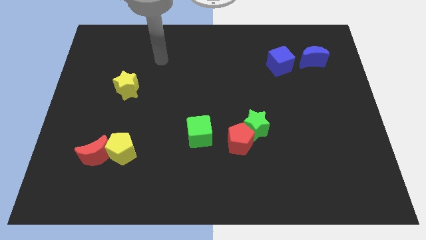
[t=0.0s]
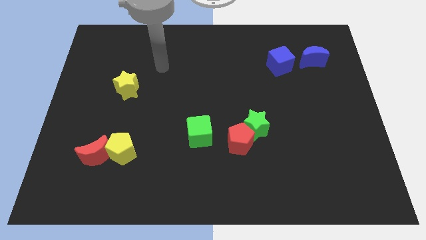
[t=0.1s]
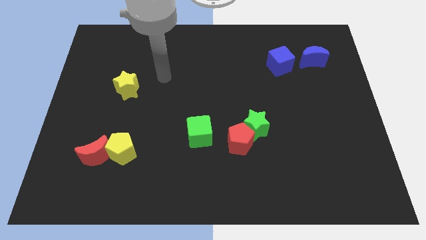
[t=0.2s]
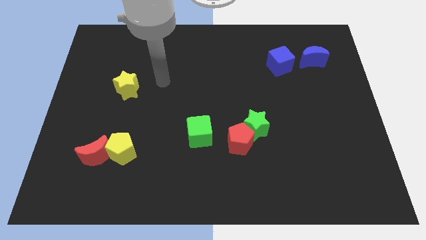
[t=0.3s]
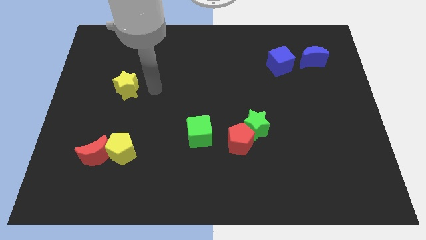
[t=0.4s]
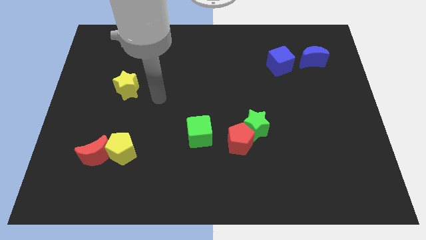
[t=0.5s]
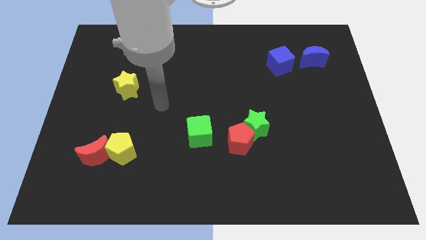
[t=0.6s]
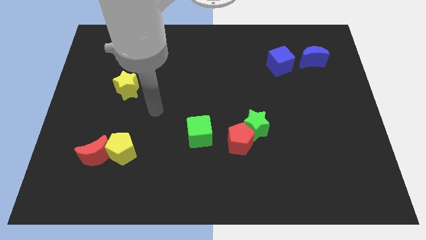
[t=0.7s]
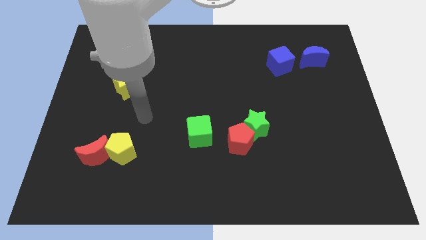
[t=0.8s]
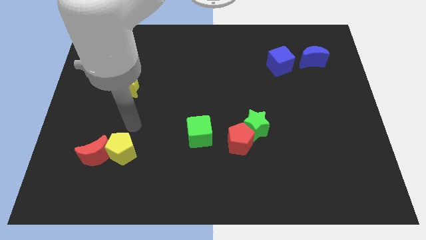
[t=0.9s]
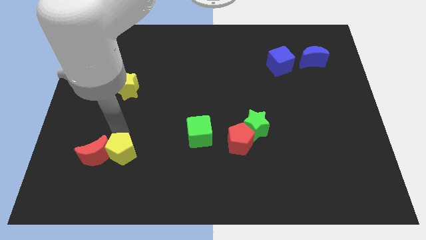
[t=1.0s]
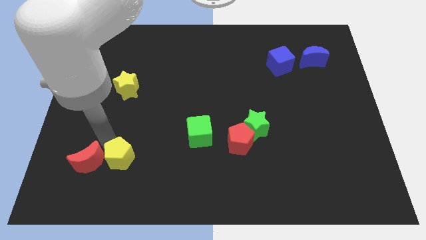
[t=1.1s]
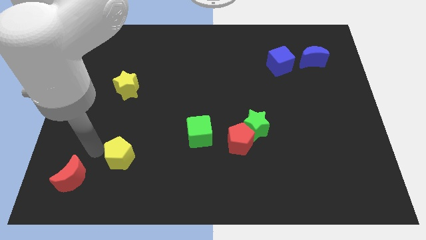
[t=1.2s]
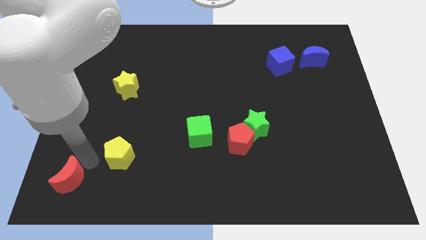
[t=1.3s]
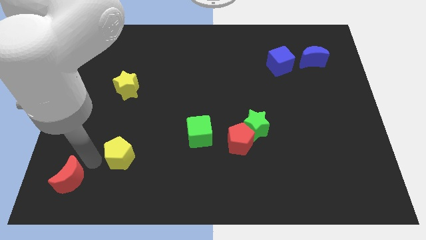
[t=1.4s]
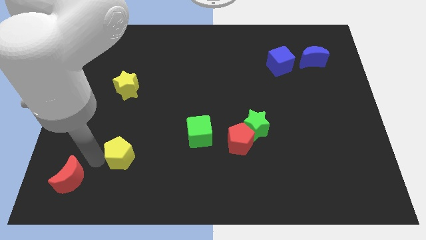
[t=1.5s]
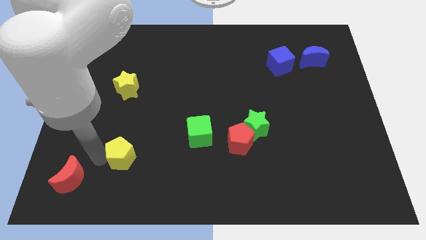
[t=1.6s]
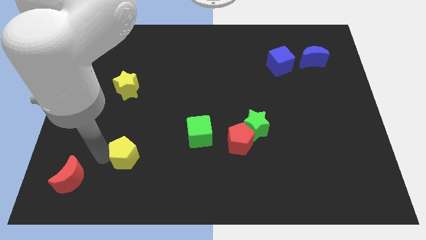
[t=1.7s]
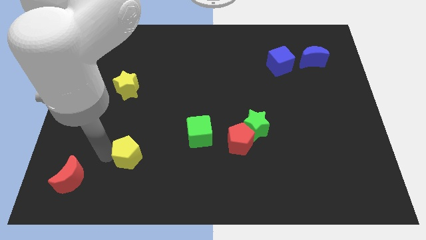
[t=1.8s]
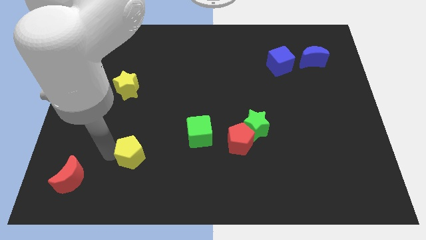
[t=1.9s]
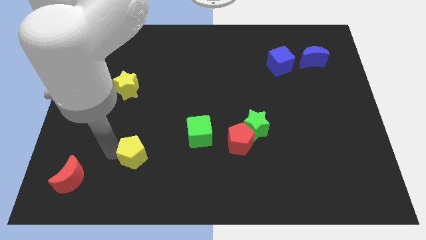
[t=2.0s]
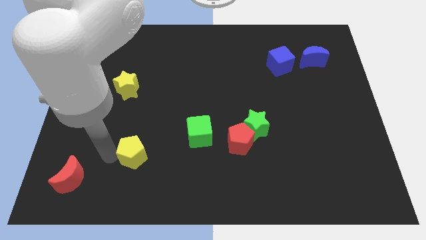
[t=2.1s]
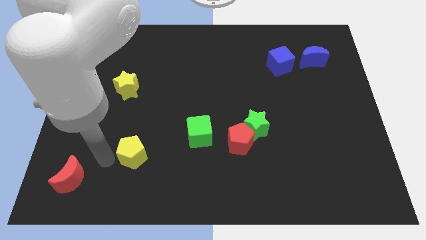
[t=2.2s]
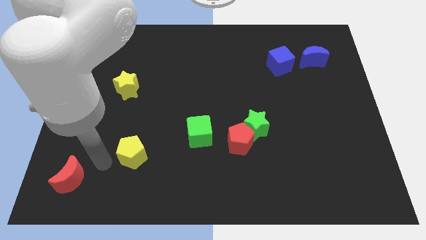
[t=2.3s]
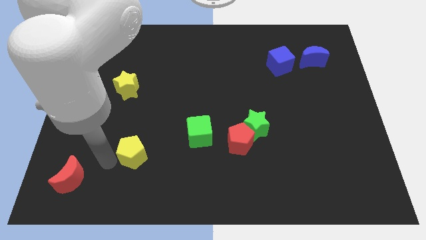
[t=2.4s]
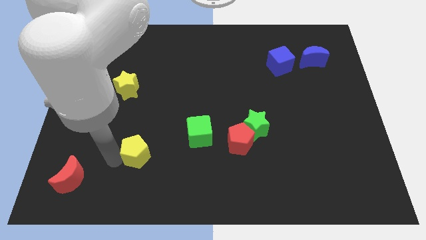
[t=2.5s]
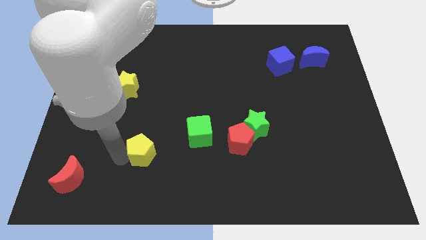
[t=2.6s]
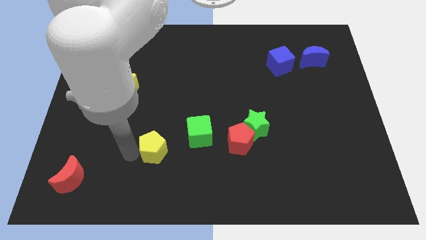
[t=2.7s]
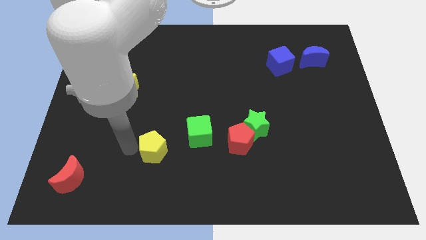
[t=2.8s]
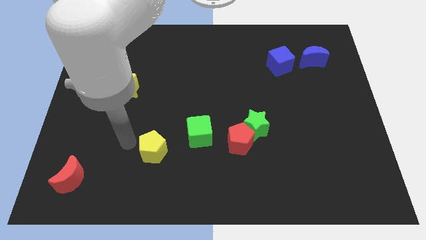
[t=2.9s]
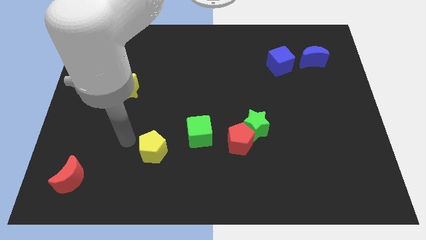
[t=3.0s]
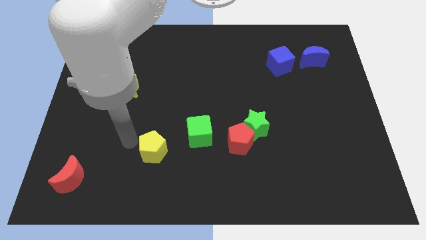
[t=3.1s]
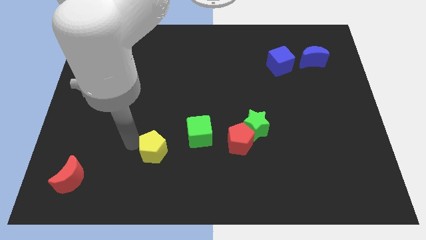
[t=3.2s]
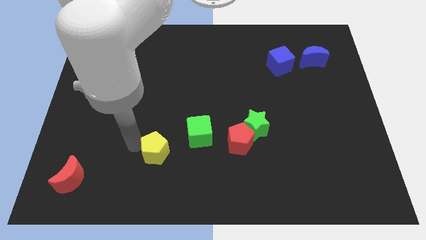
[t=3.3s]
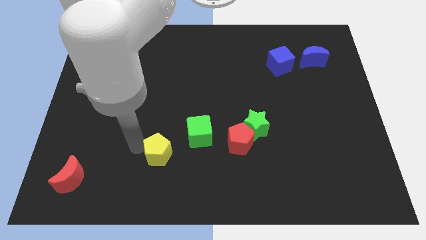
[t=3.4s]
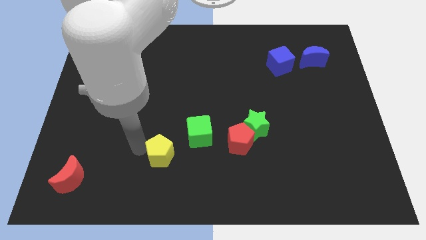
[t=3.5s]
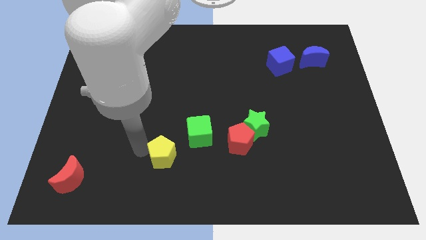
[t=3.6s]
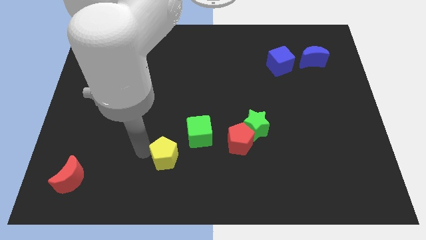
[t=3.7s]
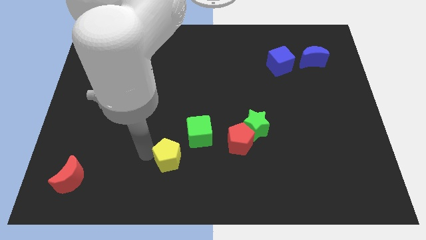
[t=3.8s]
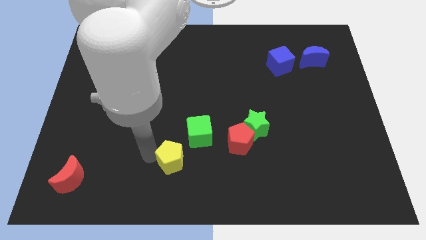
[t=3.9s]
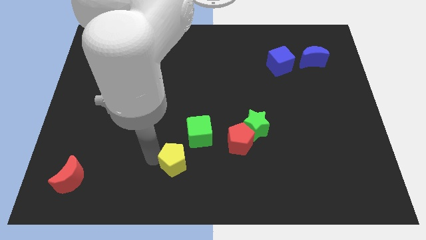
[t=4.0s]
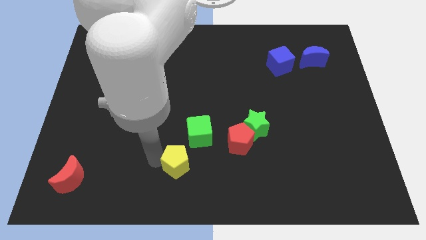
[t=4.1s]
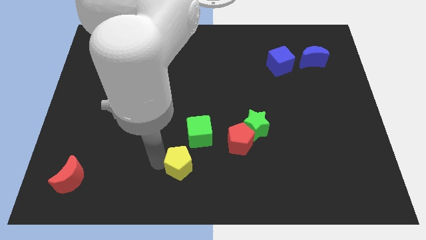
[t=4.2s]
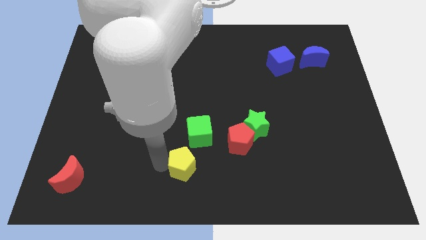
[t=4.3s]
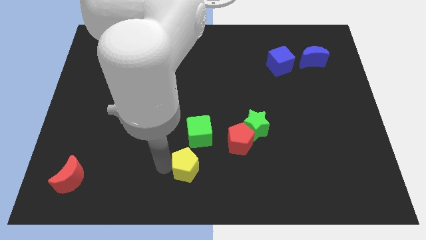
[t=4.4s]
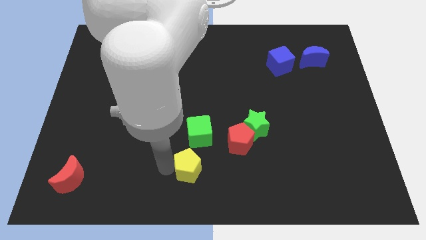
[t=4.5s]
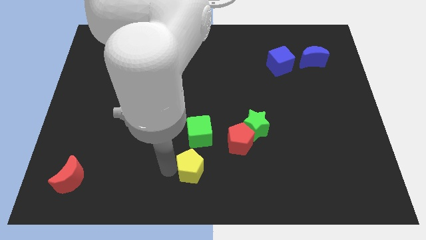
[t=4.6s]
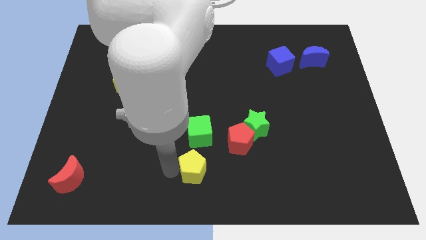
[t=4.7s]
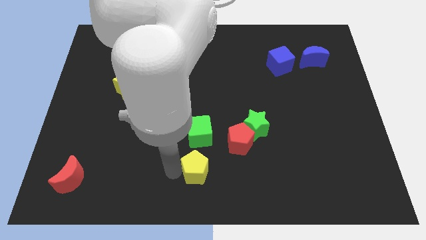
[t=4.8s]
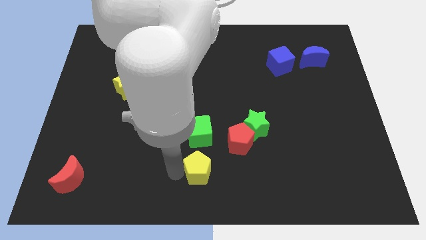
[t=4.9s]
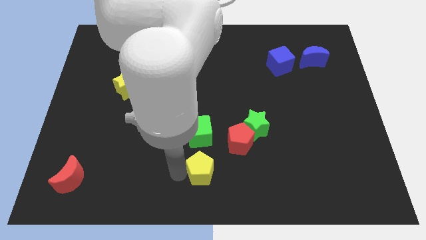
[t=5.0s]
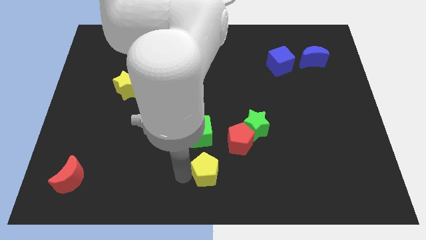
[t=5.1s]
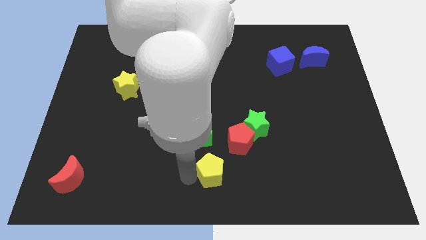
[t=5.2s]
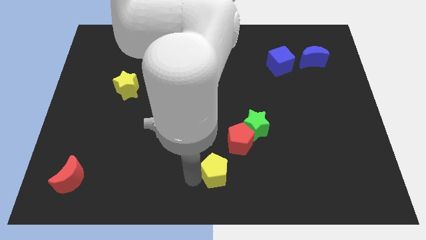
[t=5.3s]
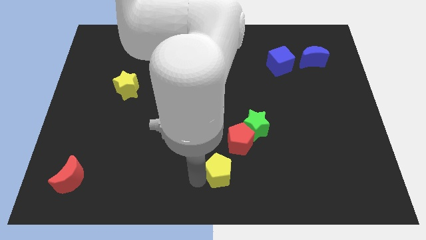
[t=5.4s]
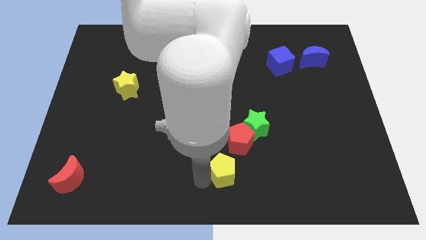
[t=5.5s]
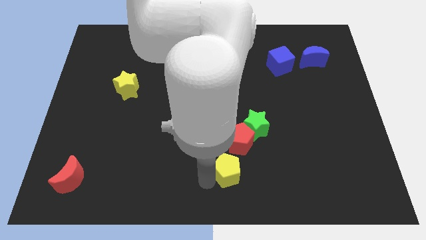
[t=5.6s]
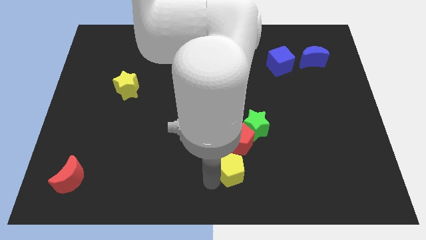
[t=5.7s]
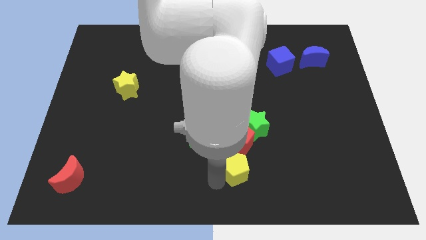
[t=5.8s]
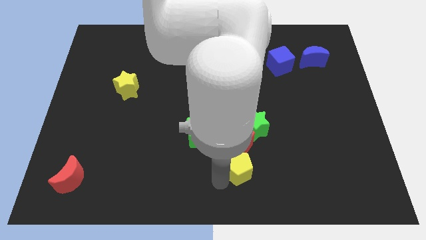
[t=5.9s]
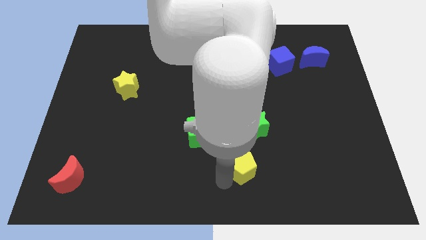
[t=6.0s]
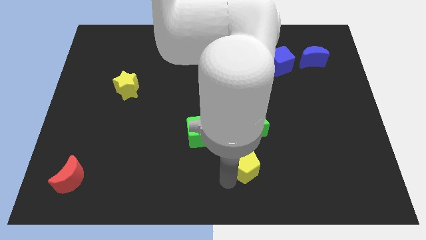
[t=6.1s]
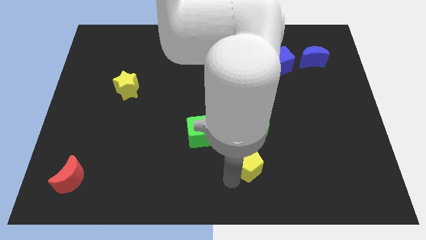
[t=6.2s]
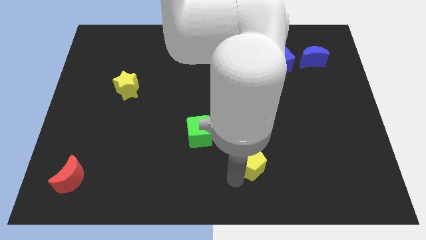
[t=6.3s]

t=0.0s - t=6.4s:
move the yellow pentagon to the red pentagon

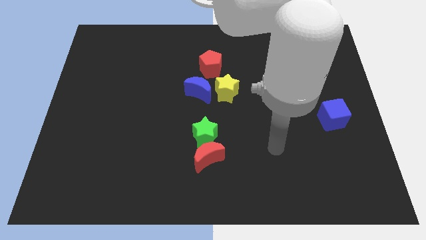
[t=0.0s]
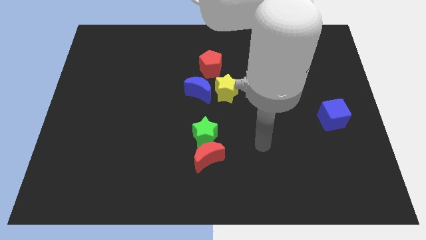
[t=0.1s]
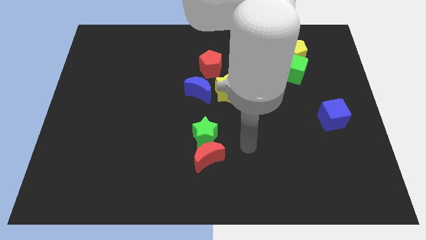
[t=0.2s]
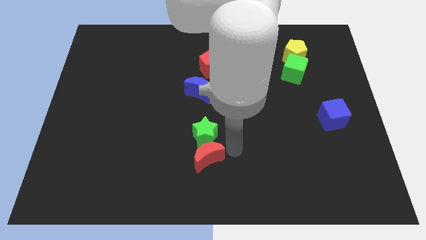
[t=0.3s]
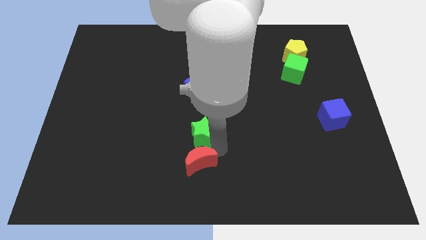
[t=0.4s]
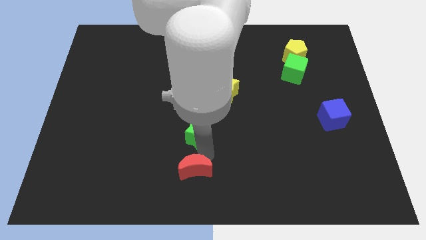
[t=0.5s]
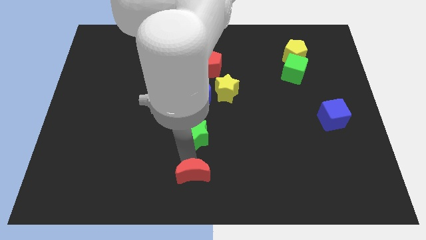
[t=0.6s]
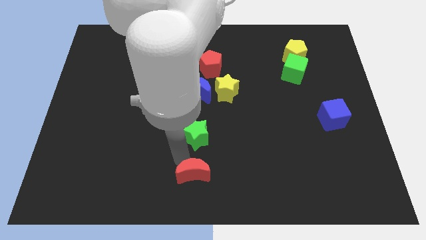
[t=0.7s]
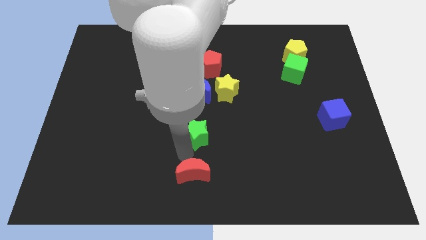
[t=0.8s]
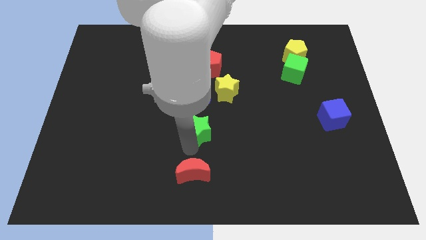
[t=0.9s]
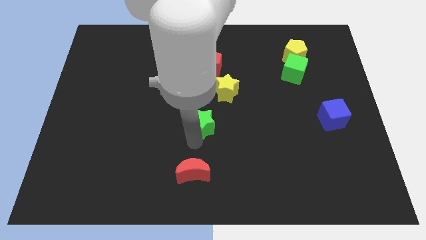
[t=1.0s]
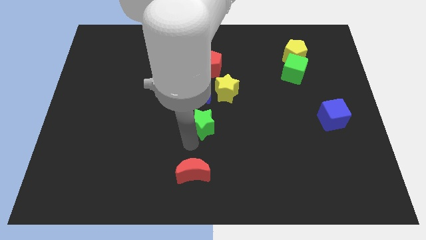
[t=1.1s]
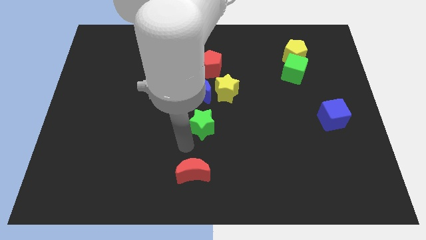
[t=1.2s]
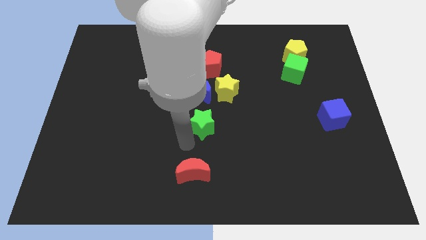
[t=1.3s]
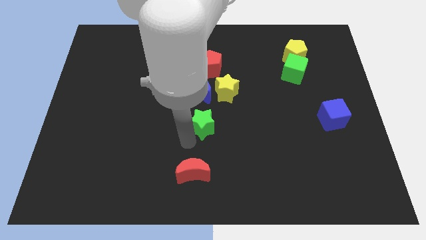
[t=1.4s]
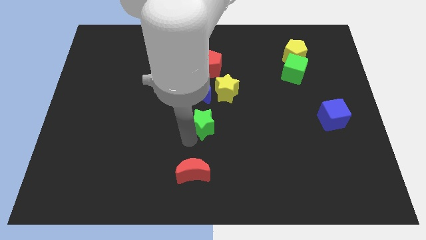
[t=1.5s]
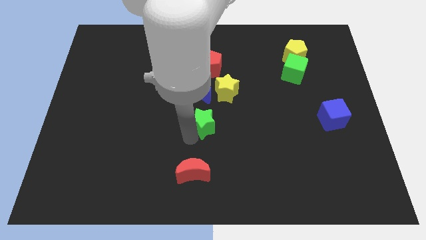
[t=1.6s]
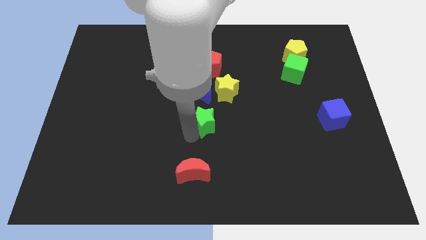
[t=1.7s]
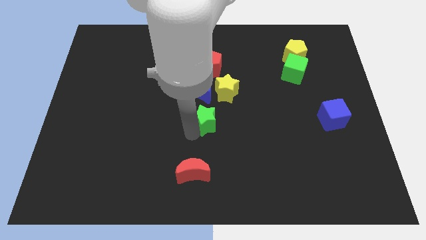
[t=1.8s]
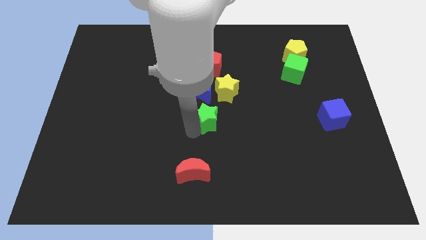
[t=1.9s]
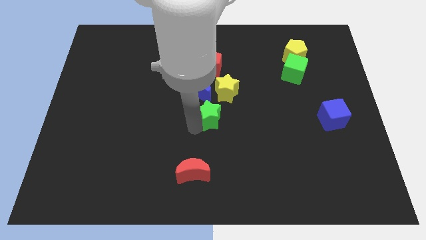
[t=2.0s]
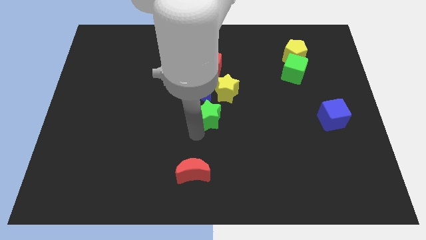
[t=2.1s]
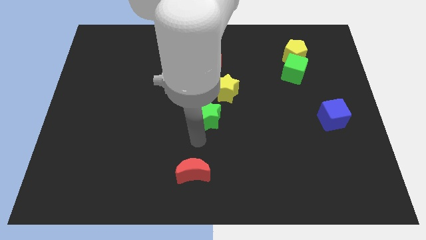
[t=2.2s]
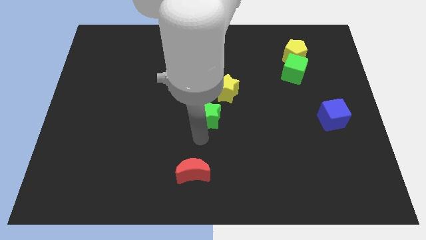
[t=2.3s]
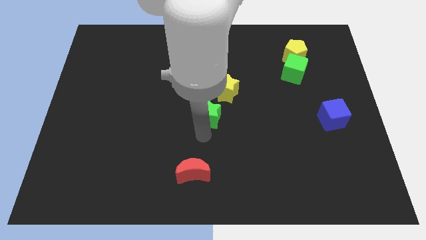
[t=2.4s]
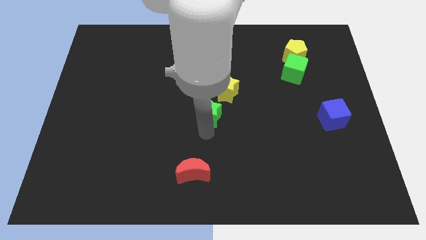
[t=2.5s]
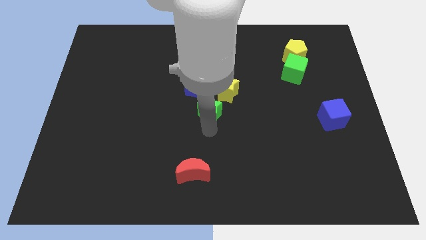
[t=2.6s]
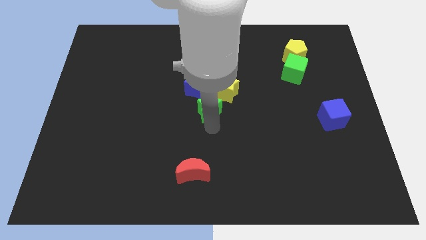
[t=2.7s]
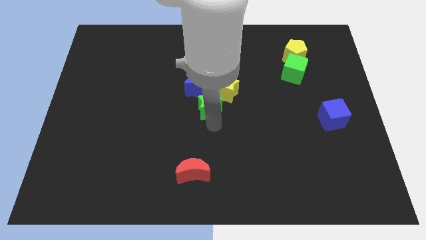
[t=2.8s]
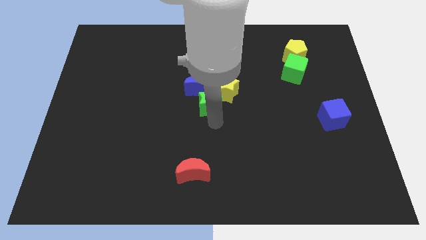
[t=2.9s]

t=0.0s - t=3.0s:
slide the green star close to the yellow star
